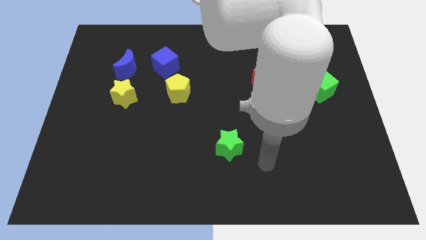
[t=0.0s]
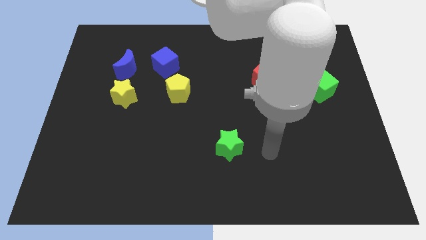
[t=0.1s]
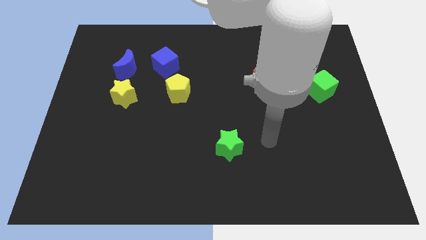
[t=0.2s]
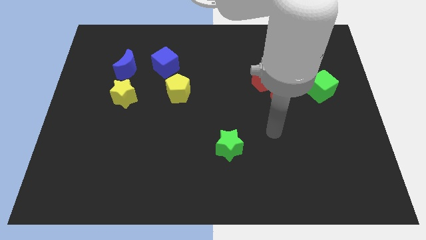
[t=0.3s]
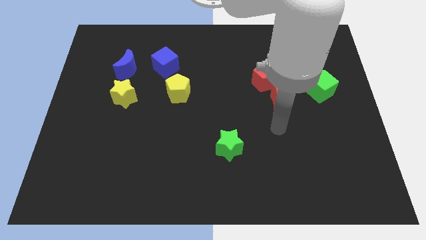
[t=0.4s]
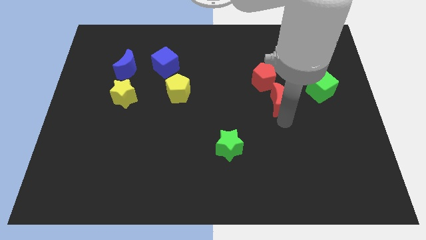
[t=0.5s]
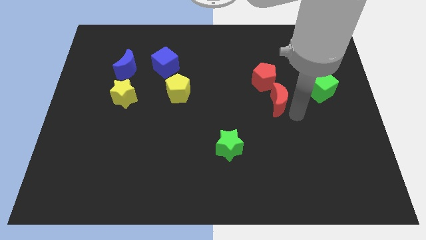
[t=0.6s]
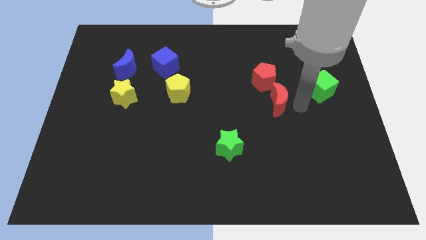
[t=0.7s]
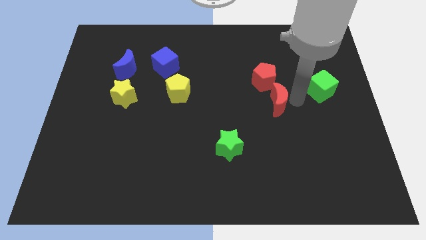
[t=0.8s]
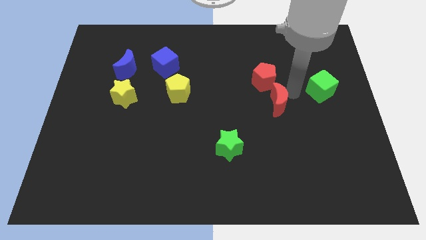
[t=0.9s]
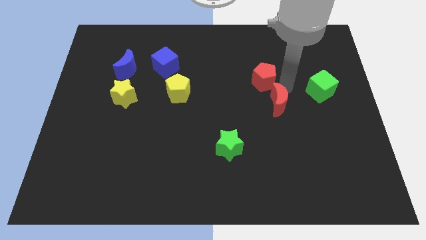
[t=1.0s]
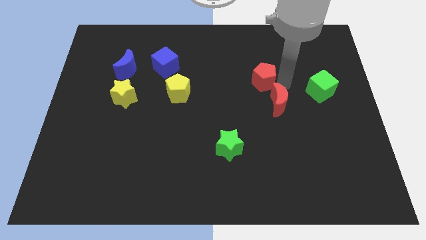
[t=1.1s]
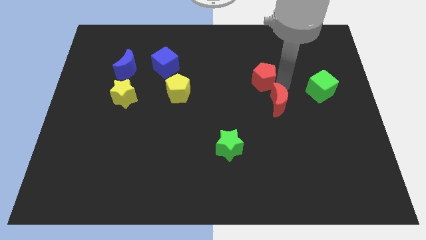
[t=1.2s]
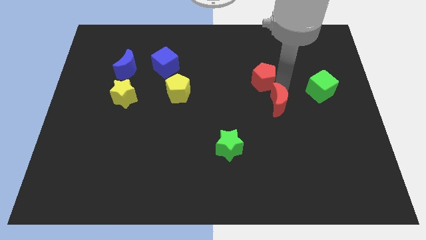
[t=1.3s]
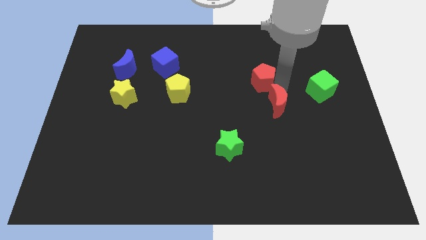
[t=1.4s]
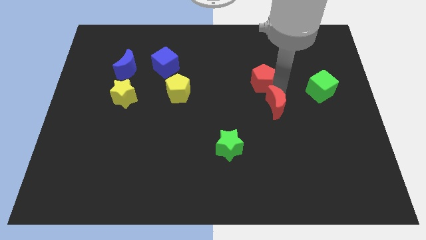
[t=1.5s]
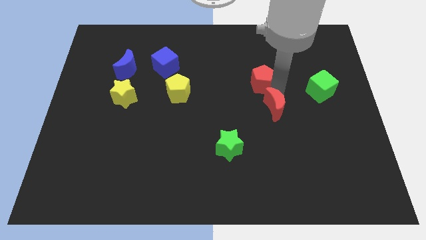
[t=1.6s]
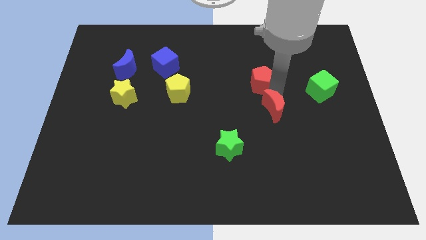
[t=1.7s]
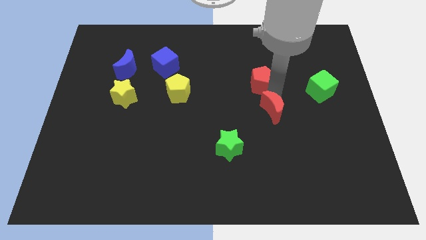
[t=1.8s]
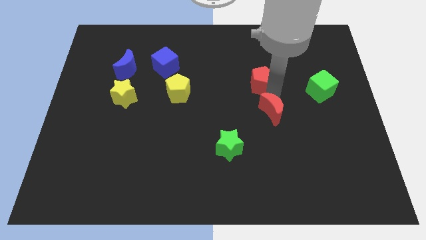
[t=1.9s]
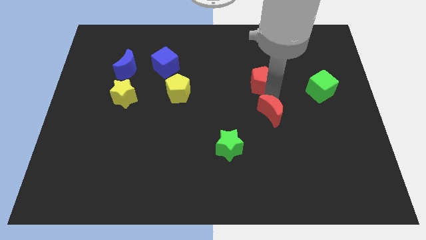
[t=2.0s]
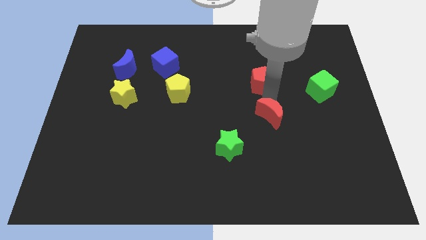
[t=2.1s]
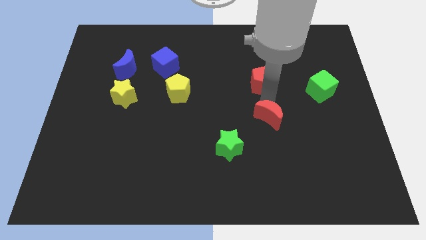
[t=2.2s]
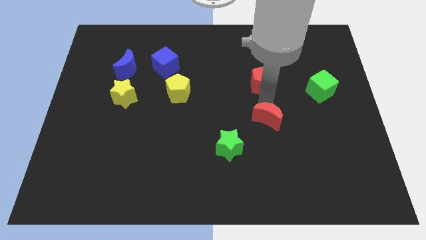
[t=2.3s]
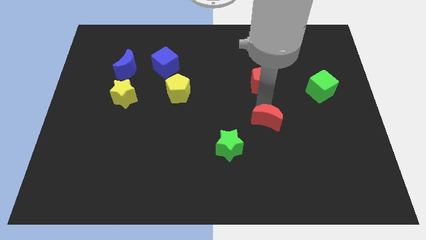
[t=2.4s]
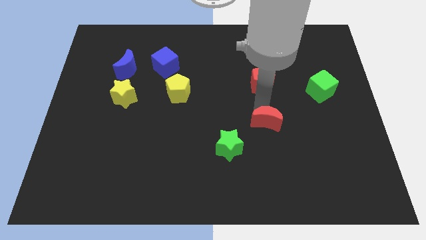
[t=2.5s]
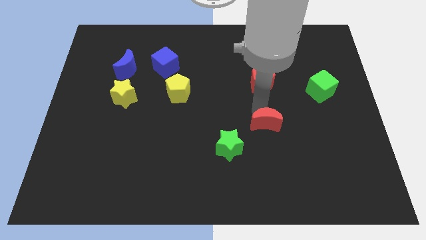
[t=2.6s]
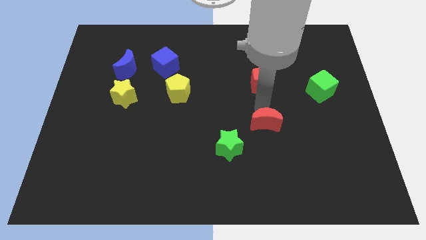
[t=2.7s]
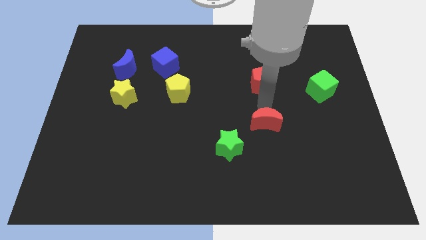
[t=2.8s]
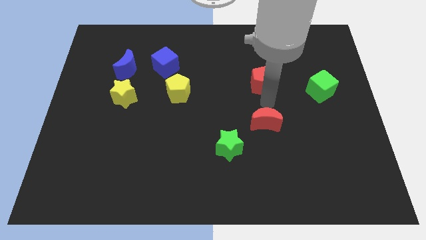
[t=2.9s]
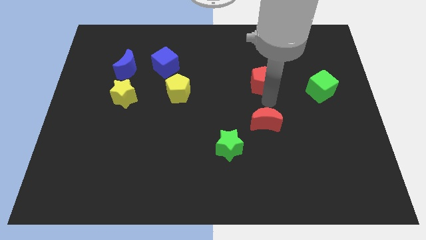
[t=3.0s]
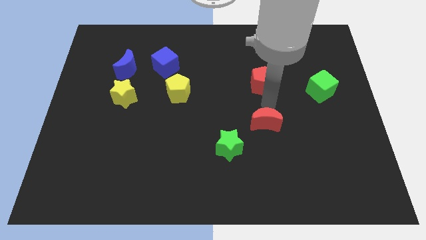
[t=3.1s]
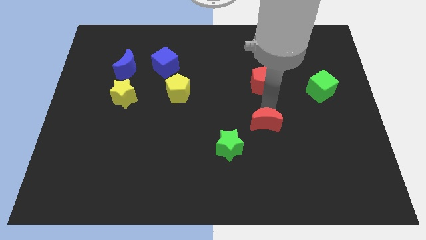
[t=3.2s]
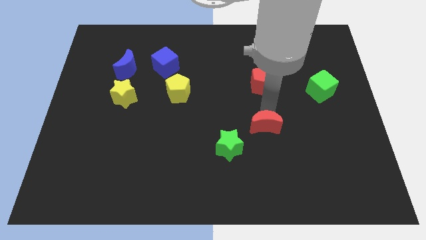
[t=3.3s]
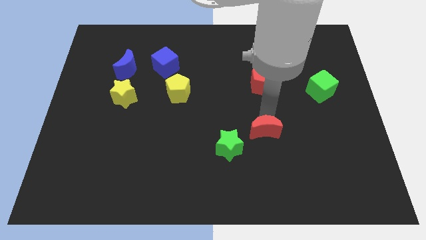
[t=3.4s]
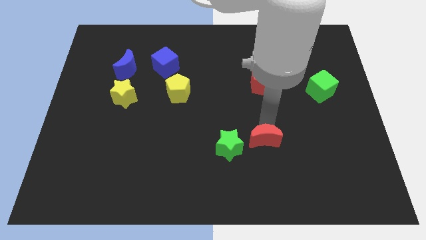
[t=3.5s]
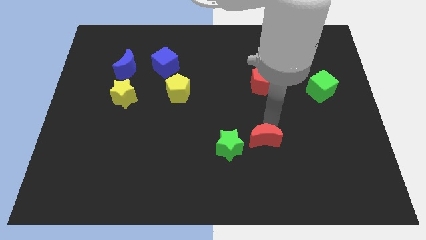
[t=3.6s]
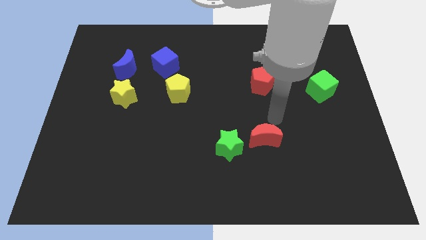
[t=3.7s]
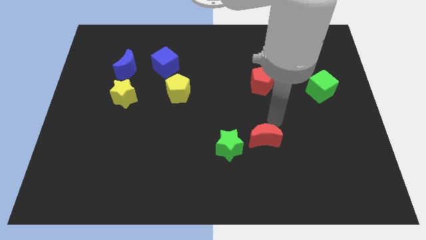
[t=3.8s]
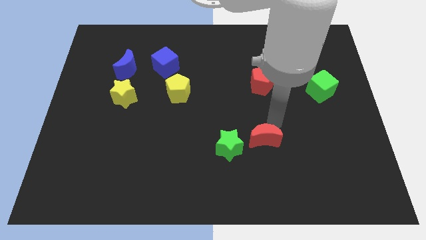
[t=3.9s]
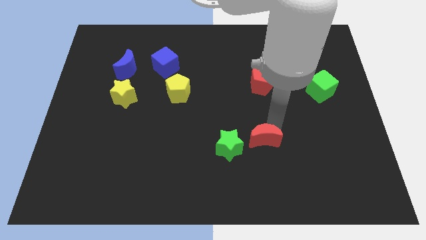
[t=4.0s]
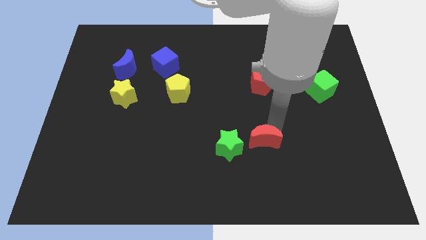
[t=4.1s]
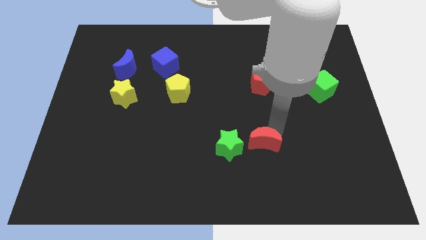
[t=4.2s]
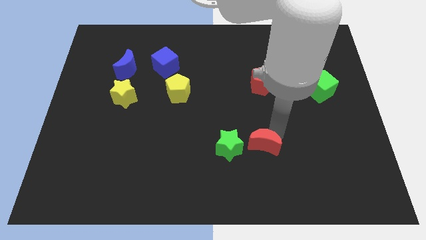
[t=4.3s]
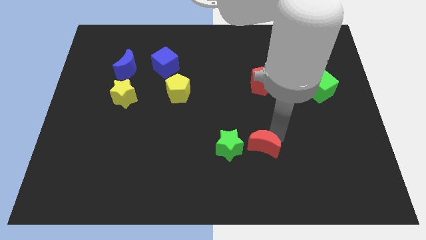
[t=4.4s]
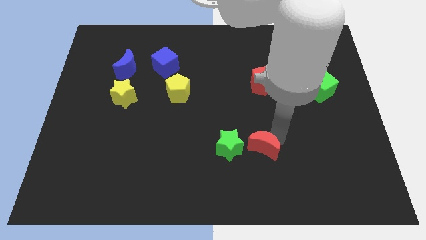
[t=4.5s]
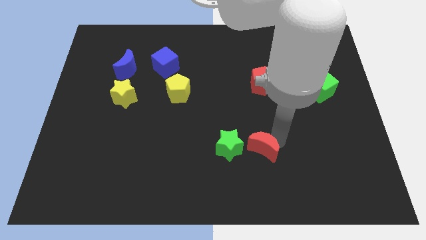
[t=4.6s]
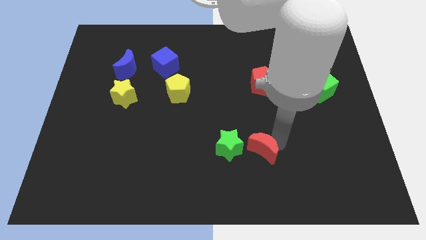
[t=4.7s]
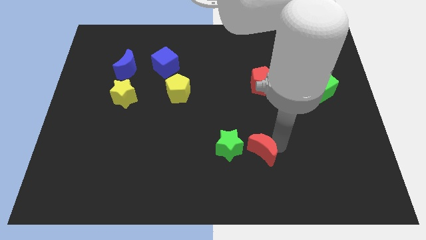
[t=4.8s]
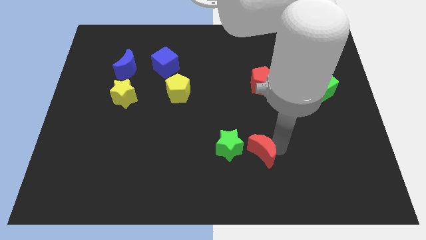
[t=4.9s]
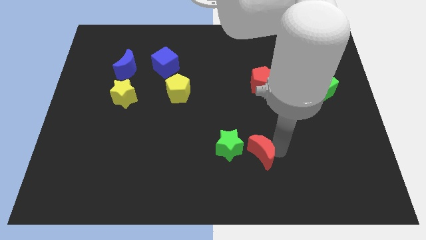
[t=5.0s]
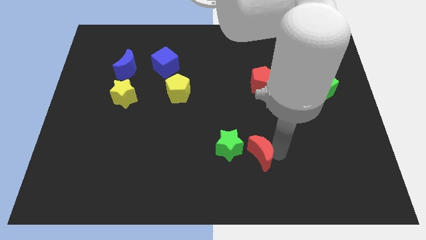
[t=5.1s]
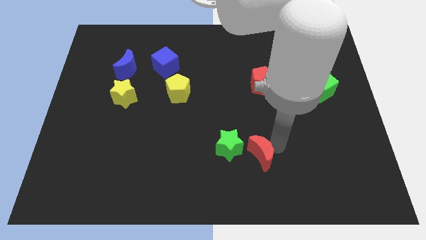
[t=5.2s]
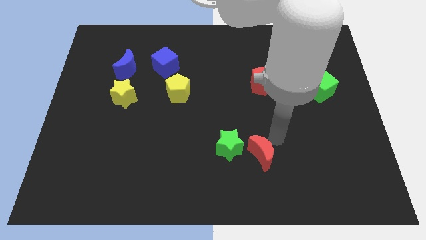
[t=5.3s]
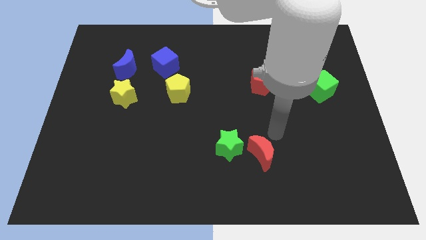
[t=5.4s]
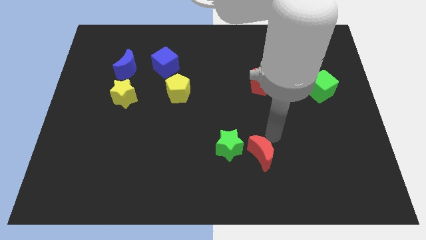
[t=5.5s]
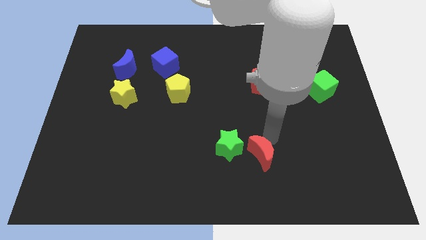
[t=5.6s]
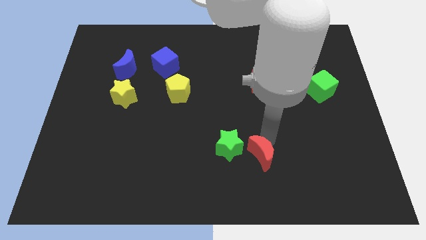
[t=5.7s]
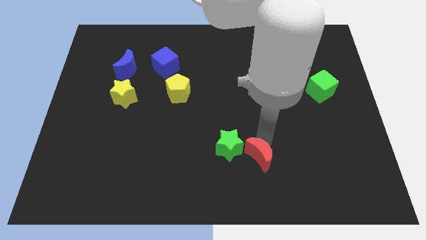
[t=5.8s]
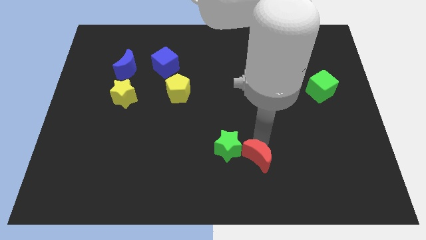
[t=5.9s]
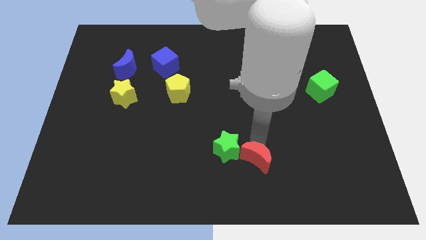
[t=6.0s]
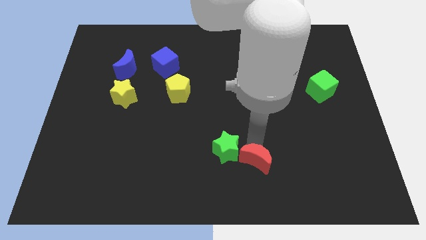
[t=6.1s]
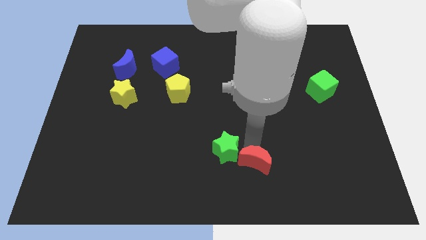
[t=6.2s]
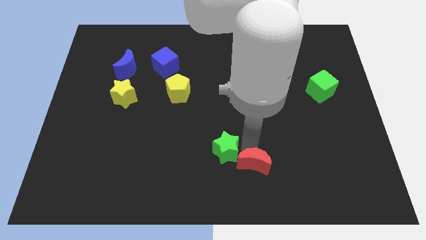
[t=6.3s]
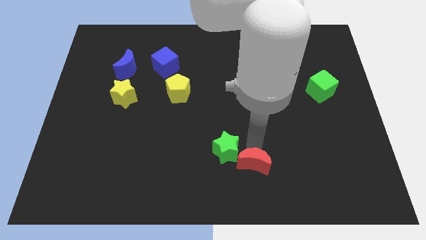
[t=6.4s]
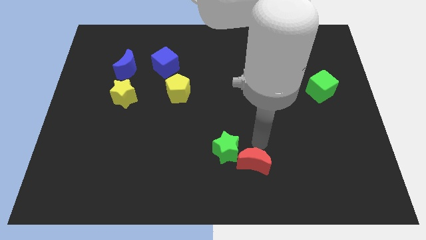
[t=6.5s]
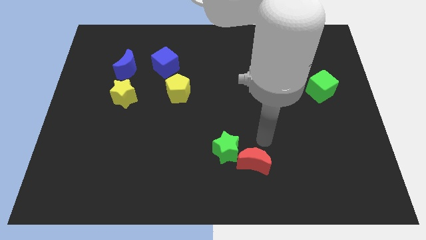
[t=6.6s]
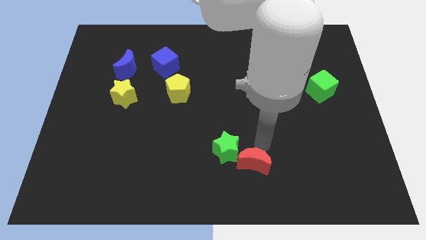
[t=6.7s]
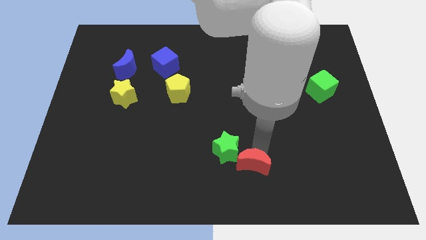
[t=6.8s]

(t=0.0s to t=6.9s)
move the red moon to the bottom side
